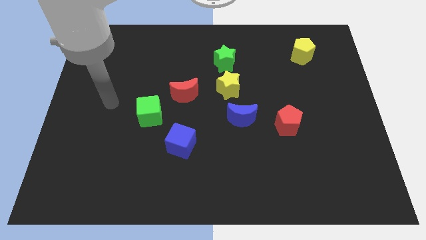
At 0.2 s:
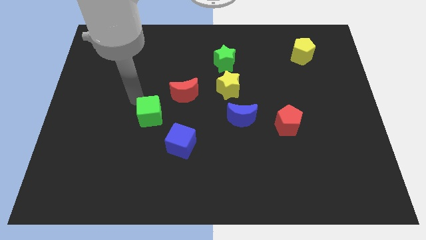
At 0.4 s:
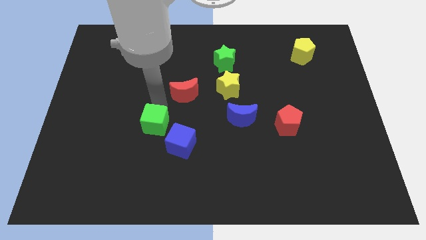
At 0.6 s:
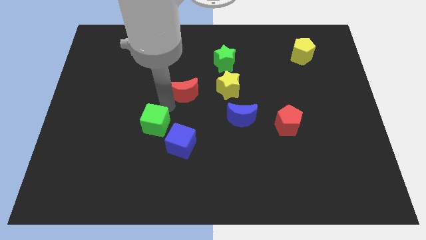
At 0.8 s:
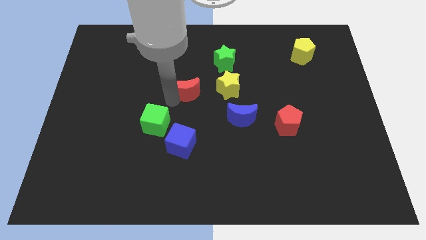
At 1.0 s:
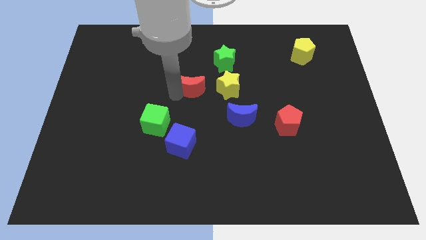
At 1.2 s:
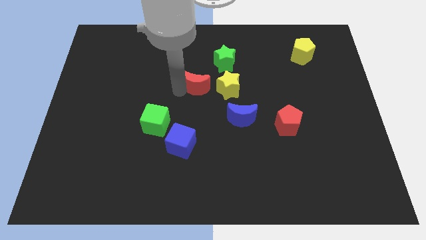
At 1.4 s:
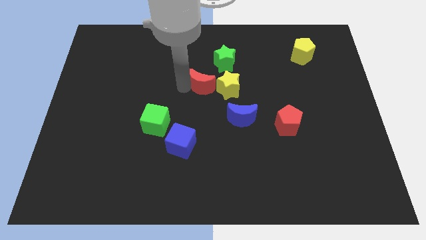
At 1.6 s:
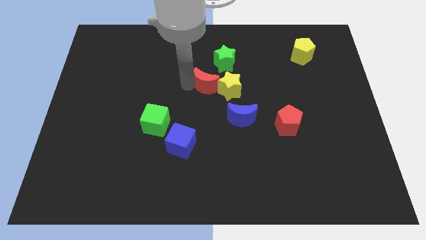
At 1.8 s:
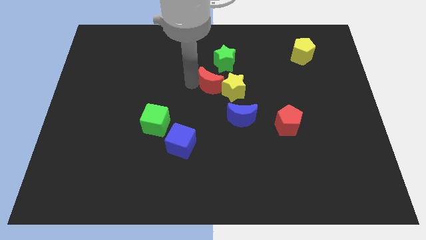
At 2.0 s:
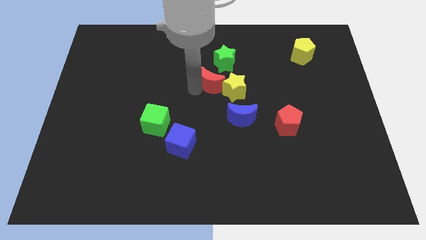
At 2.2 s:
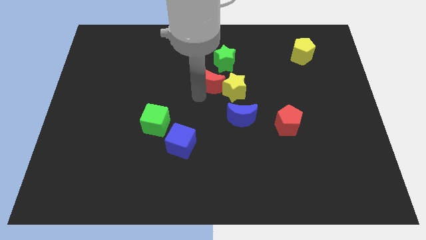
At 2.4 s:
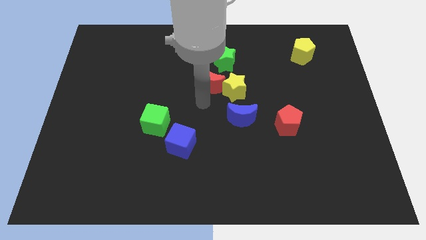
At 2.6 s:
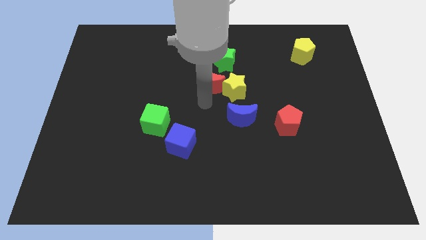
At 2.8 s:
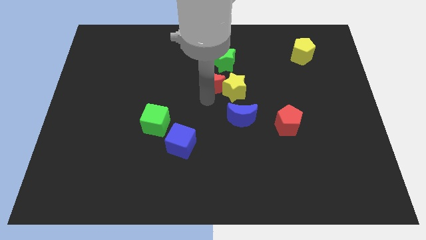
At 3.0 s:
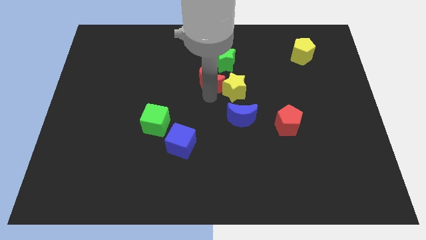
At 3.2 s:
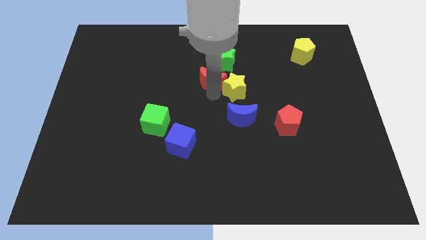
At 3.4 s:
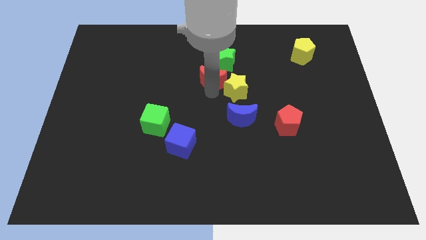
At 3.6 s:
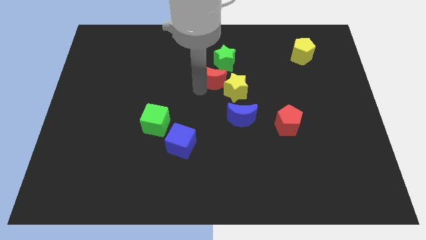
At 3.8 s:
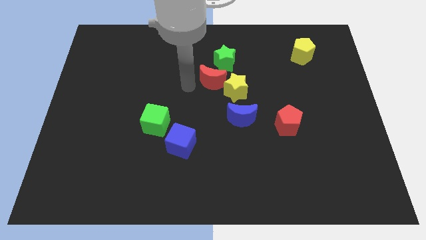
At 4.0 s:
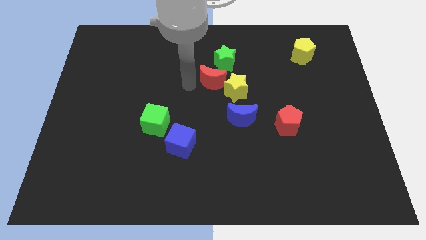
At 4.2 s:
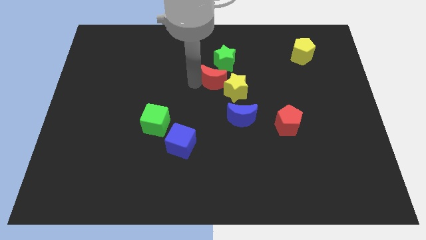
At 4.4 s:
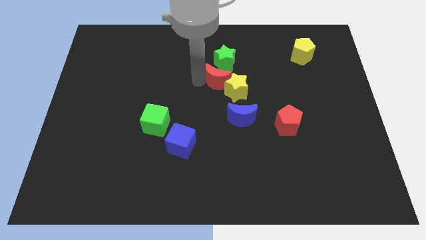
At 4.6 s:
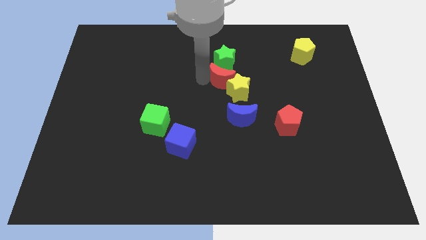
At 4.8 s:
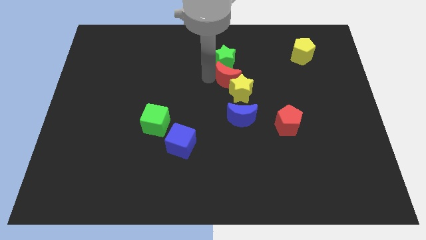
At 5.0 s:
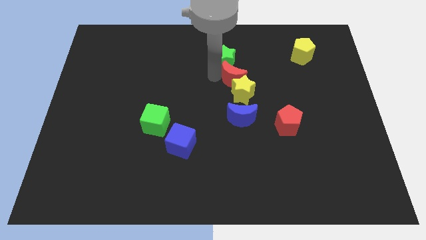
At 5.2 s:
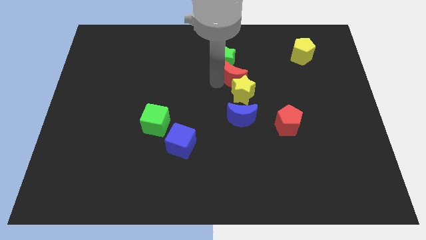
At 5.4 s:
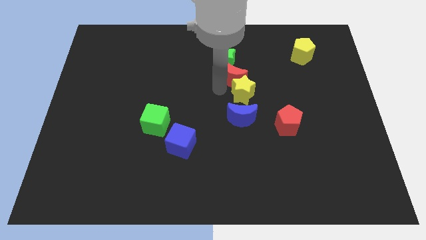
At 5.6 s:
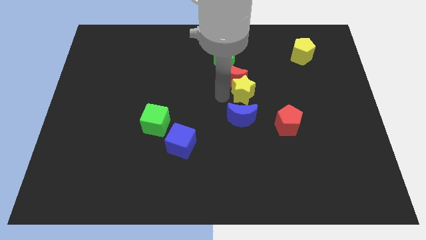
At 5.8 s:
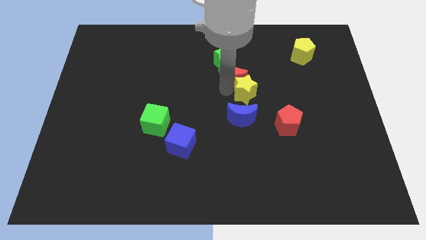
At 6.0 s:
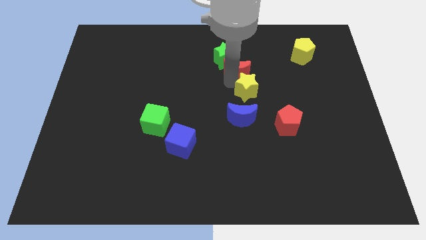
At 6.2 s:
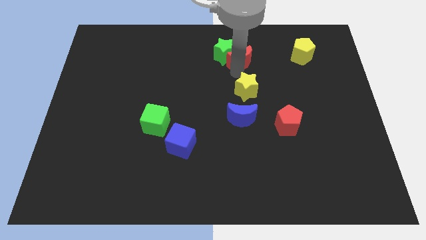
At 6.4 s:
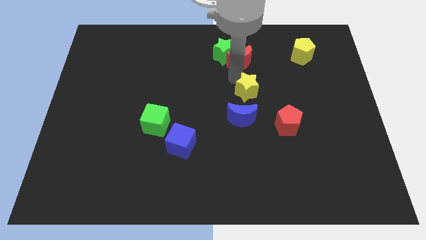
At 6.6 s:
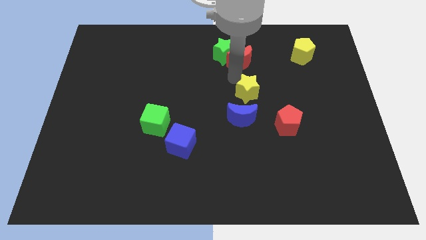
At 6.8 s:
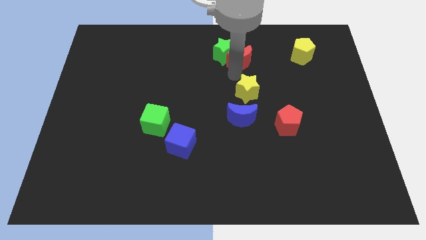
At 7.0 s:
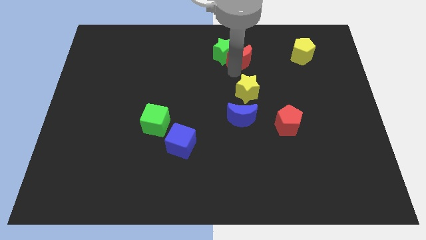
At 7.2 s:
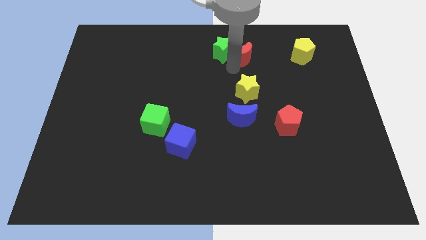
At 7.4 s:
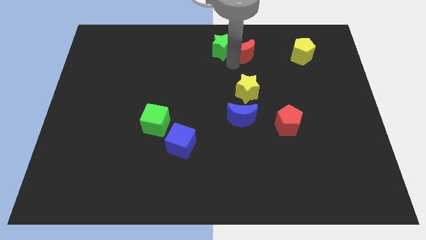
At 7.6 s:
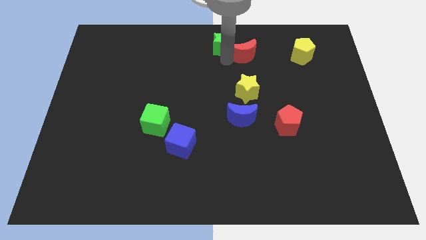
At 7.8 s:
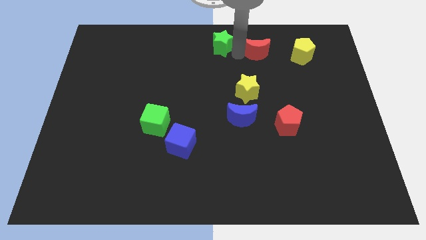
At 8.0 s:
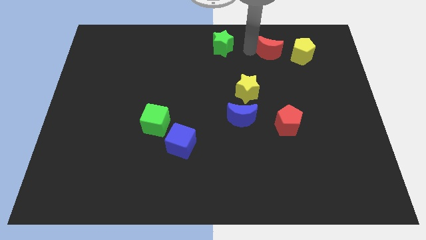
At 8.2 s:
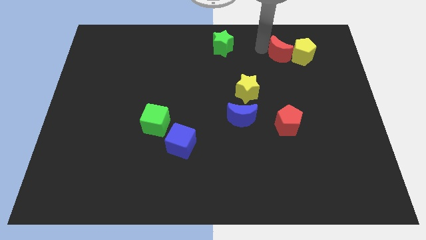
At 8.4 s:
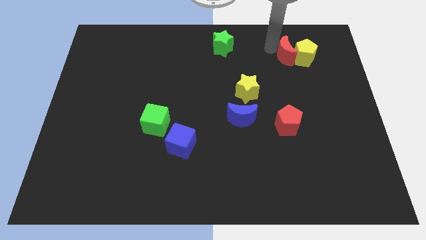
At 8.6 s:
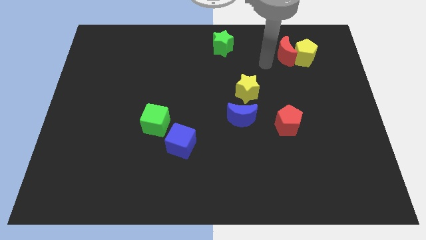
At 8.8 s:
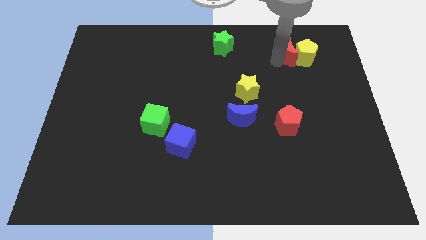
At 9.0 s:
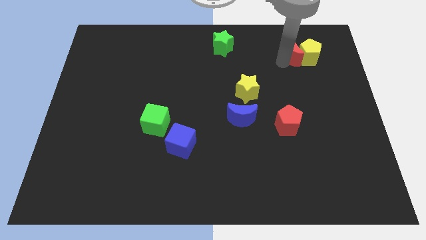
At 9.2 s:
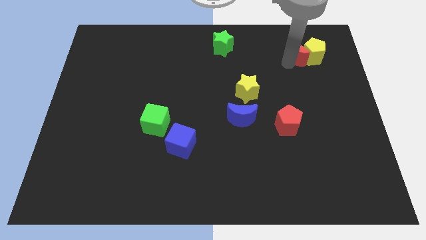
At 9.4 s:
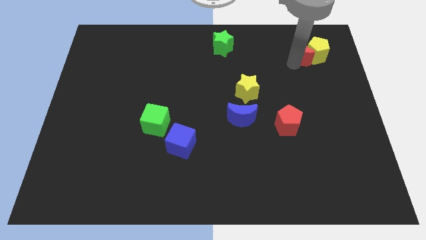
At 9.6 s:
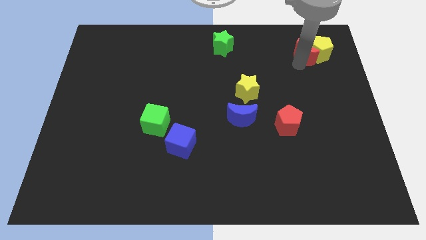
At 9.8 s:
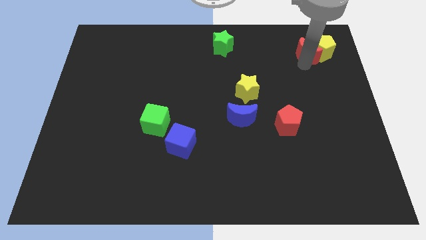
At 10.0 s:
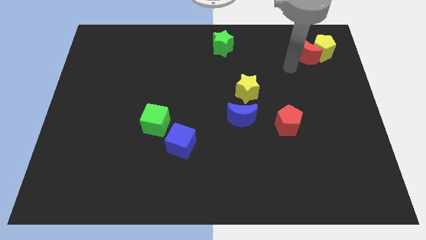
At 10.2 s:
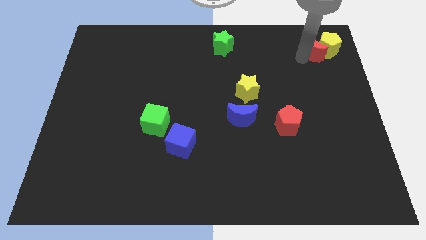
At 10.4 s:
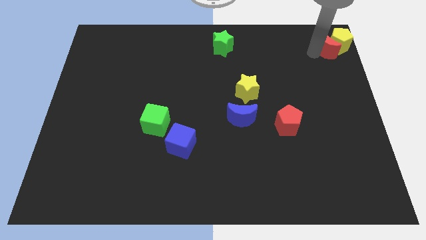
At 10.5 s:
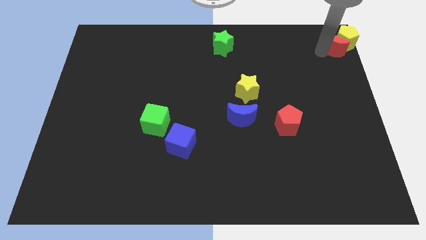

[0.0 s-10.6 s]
move the red moon to the top right
